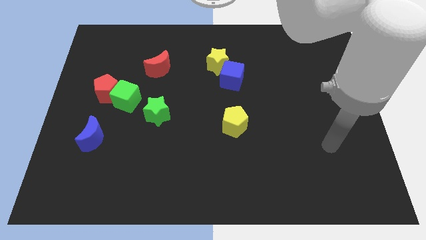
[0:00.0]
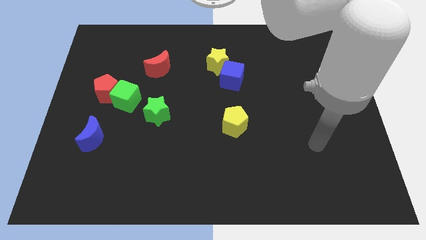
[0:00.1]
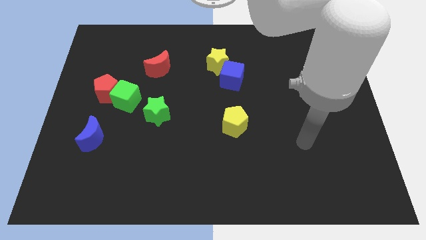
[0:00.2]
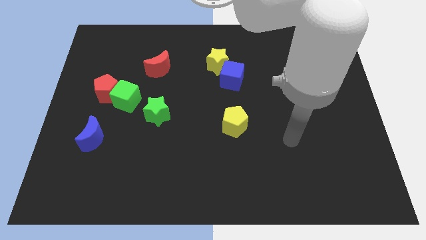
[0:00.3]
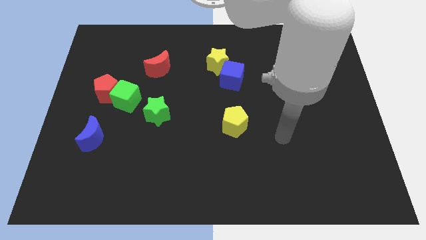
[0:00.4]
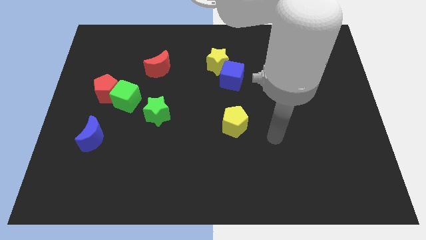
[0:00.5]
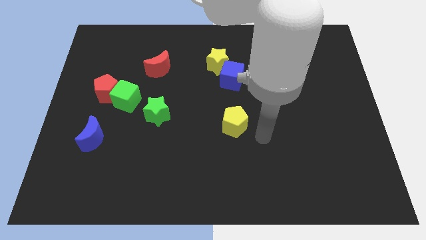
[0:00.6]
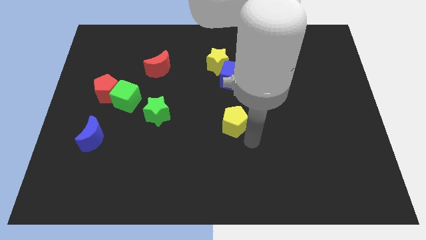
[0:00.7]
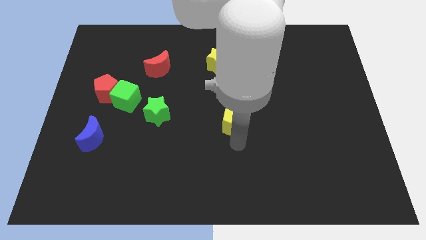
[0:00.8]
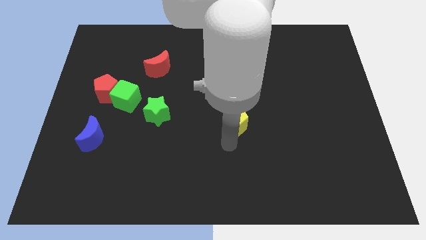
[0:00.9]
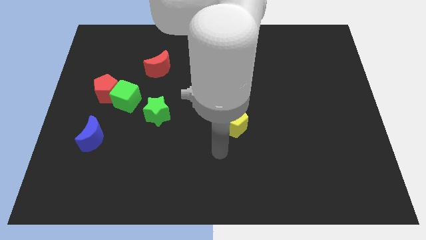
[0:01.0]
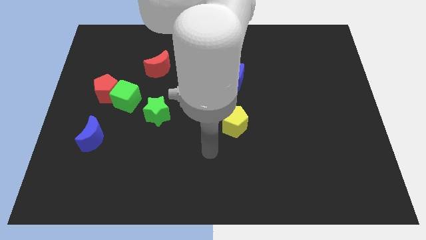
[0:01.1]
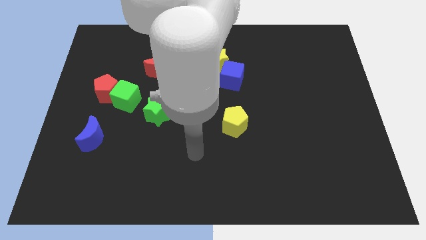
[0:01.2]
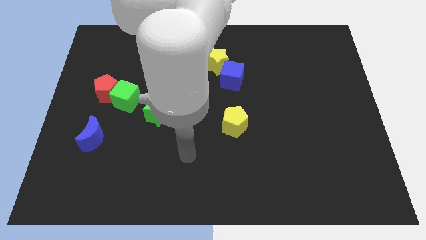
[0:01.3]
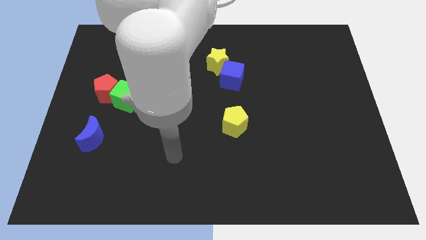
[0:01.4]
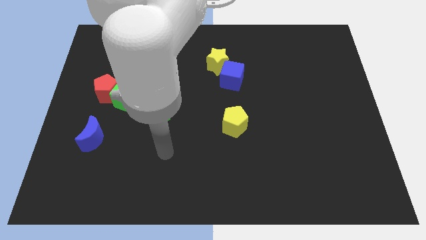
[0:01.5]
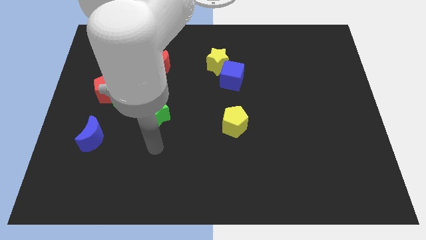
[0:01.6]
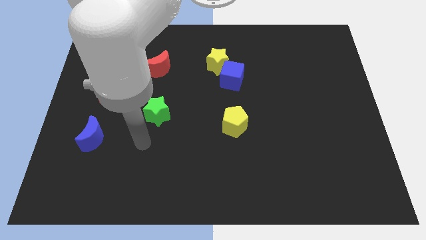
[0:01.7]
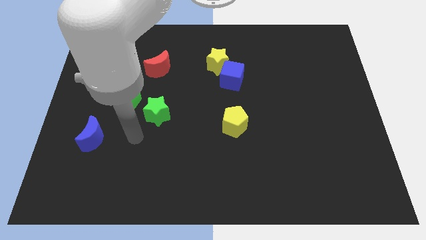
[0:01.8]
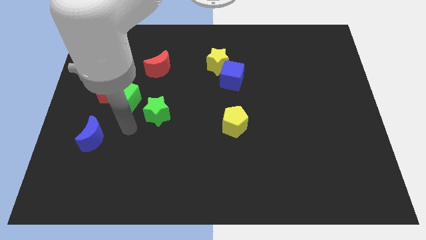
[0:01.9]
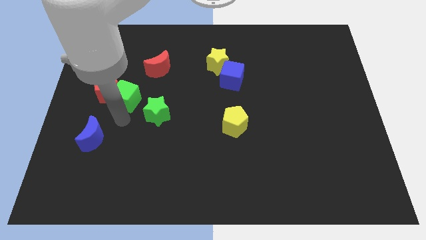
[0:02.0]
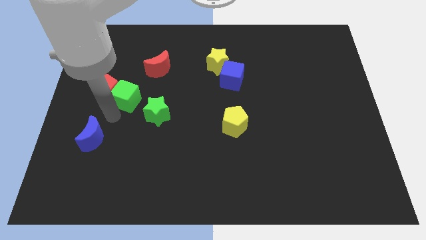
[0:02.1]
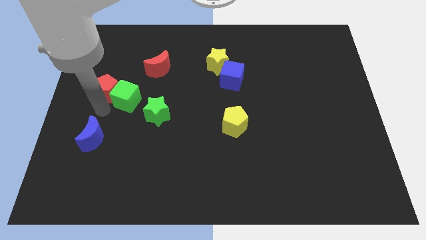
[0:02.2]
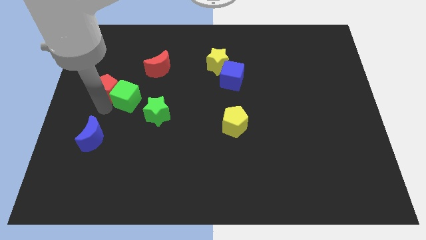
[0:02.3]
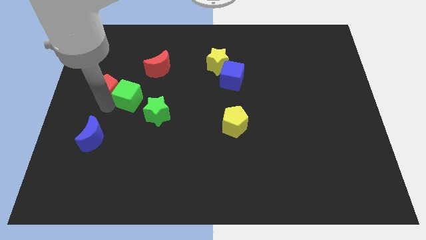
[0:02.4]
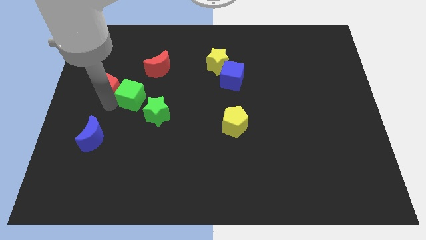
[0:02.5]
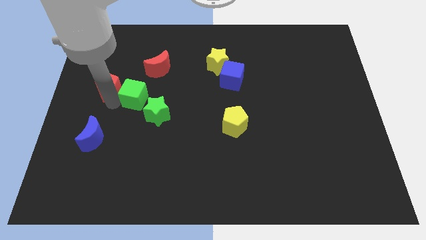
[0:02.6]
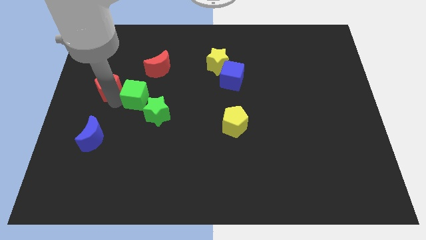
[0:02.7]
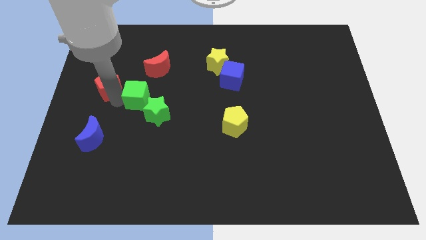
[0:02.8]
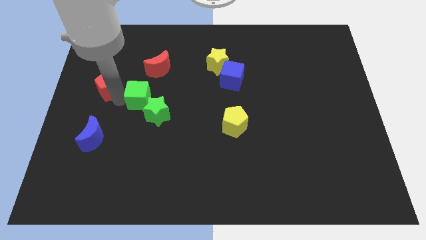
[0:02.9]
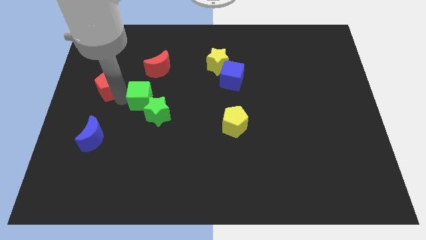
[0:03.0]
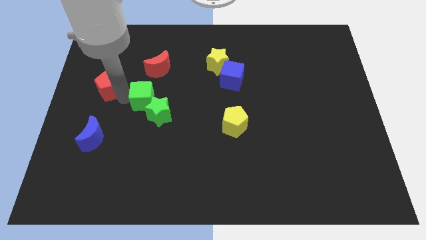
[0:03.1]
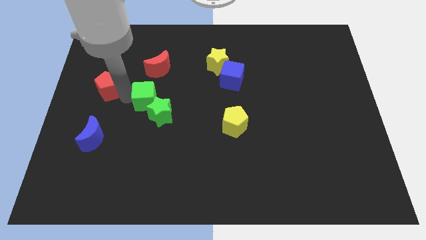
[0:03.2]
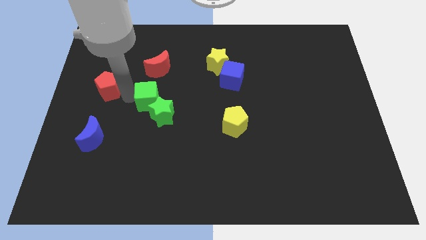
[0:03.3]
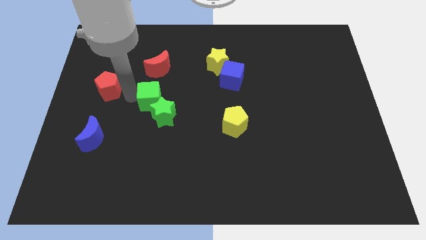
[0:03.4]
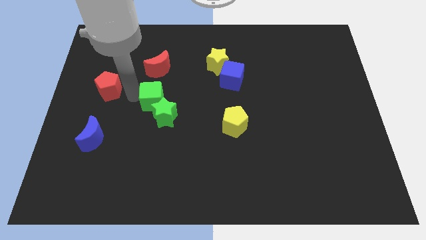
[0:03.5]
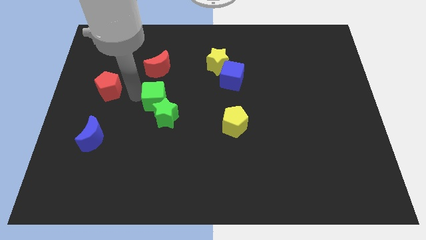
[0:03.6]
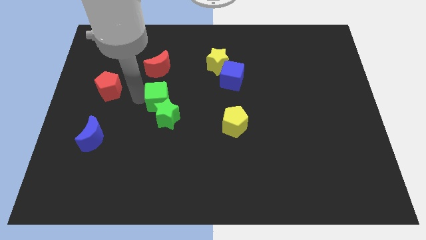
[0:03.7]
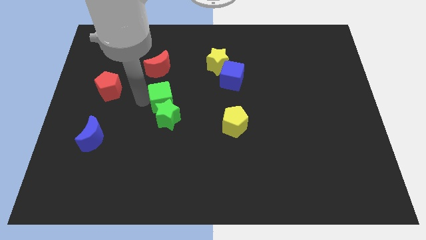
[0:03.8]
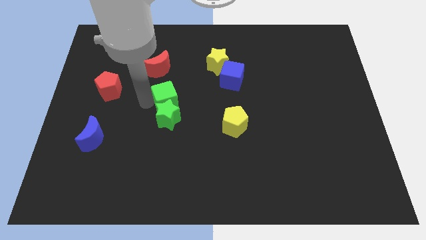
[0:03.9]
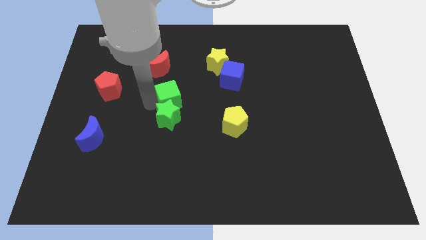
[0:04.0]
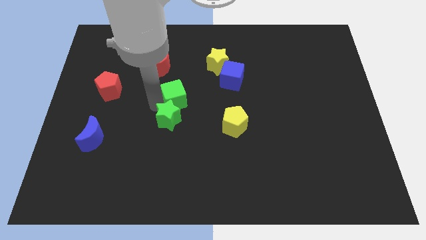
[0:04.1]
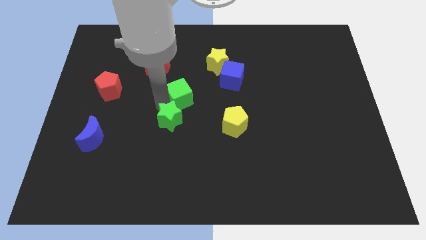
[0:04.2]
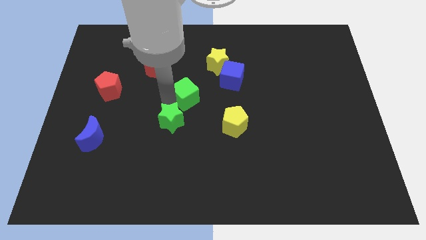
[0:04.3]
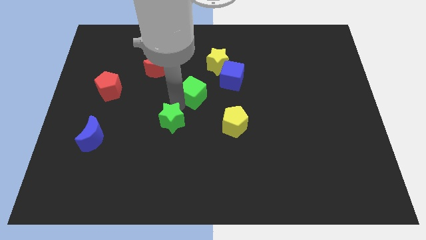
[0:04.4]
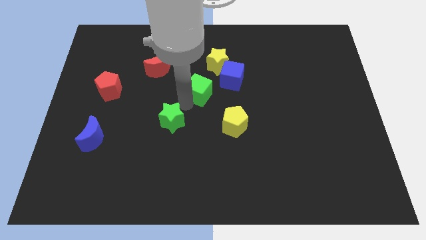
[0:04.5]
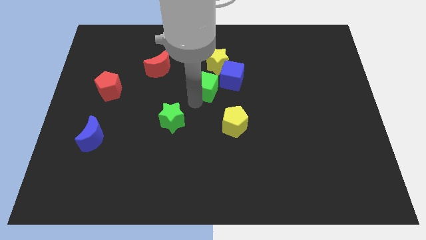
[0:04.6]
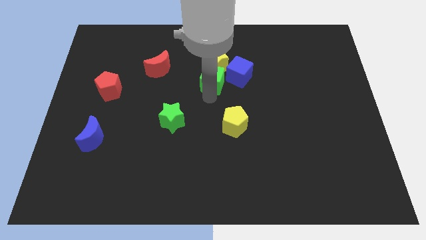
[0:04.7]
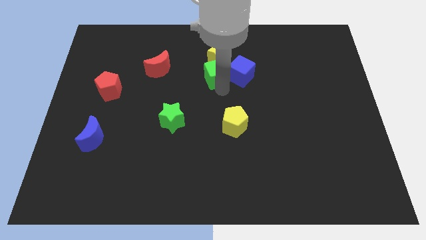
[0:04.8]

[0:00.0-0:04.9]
move the green cube right of the red moon
